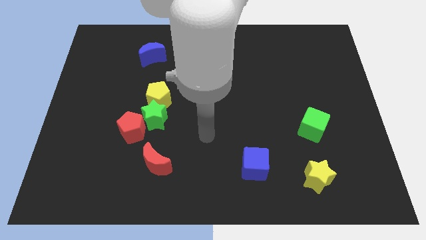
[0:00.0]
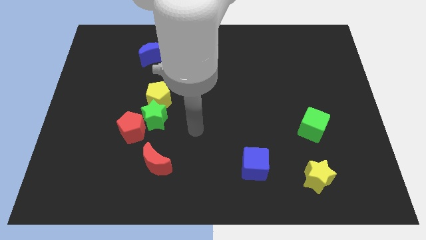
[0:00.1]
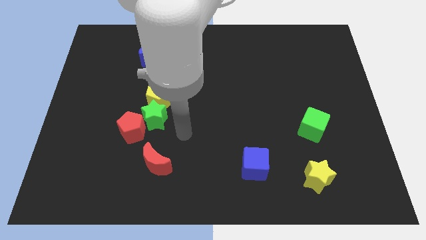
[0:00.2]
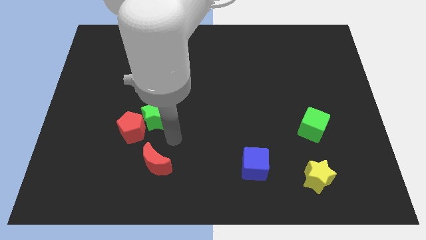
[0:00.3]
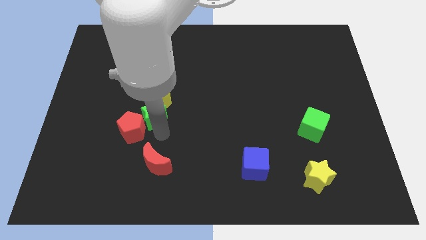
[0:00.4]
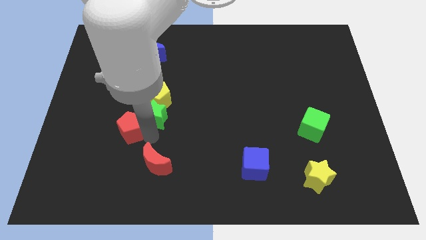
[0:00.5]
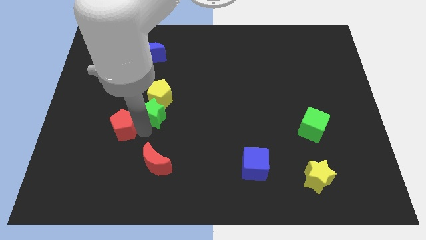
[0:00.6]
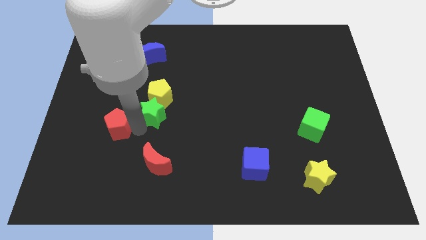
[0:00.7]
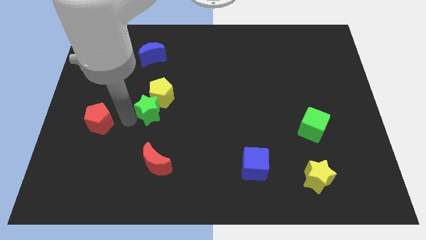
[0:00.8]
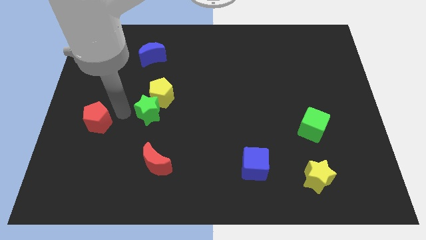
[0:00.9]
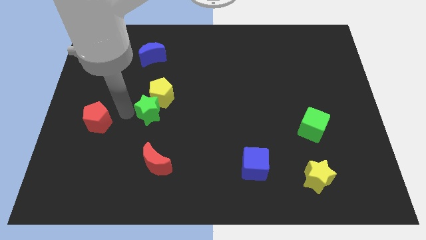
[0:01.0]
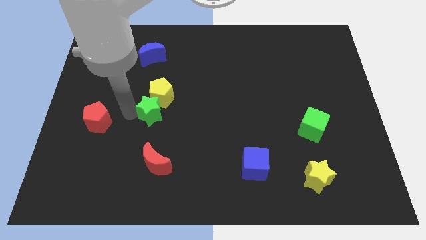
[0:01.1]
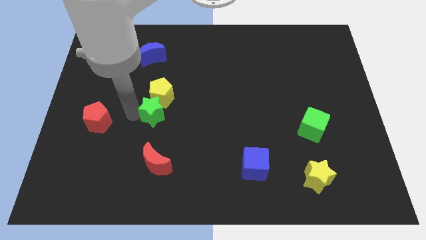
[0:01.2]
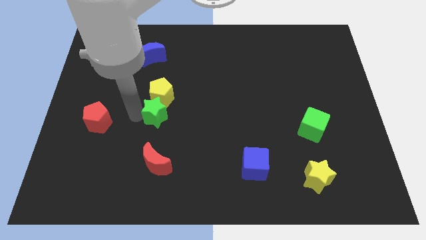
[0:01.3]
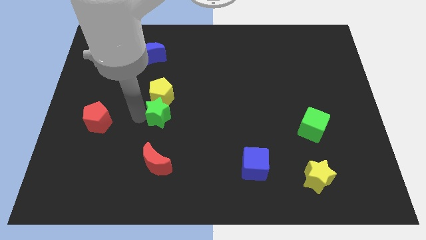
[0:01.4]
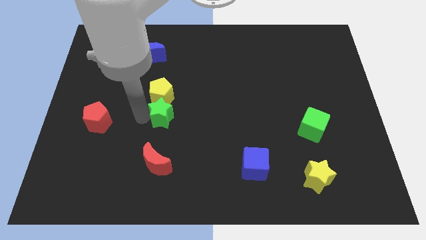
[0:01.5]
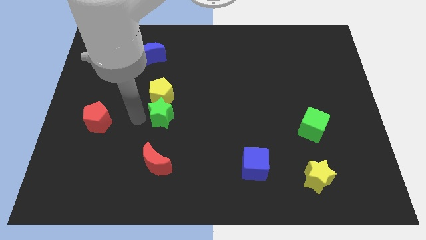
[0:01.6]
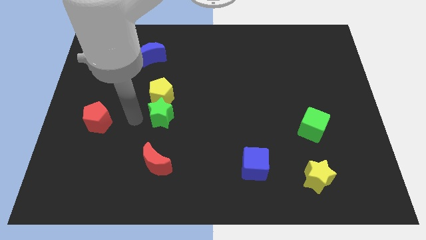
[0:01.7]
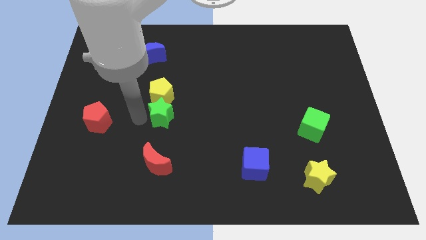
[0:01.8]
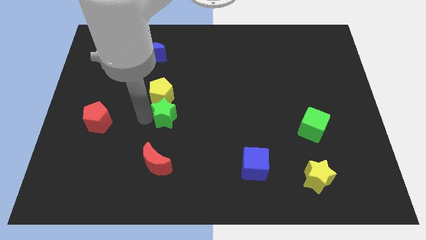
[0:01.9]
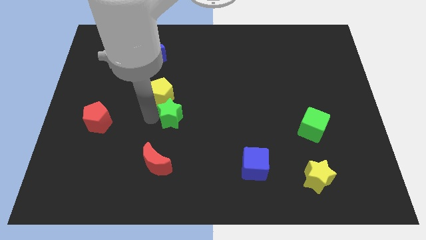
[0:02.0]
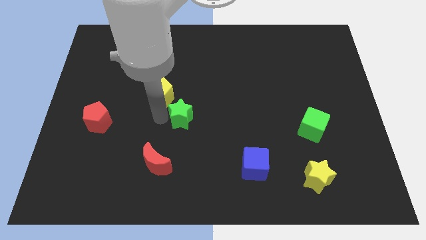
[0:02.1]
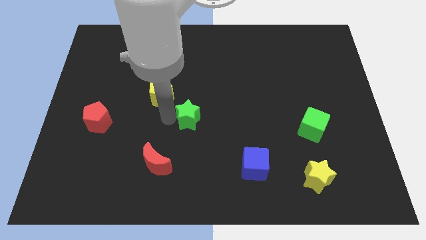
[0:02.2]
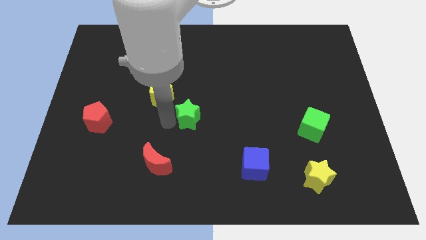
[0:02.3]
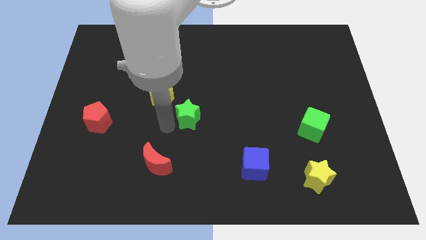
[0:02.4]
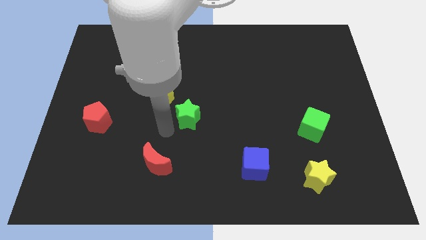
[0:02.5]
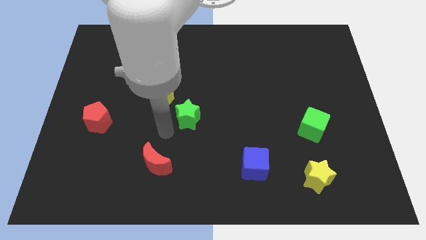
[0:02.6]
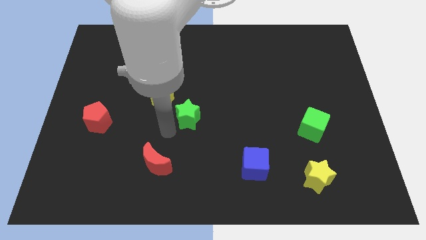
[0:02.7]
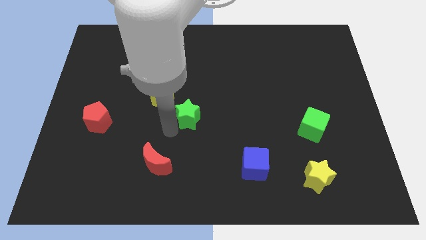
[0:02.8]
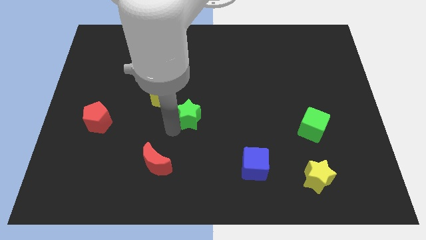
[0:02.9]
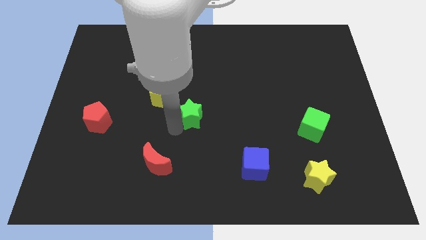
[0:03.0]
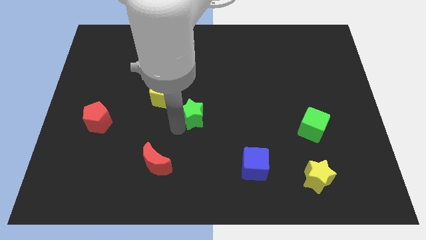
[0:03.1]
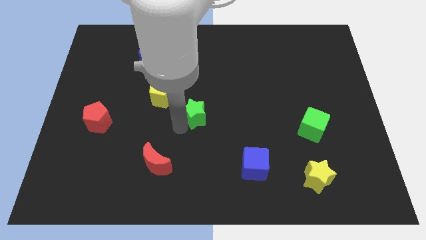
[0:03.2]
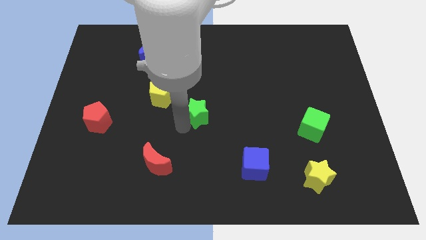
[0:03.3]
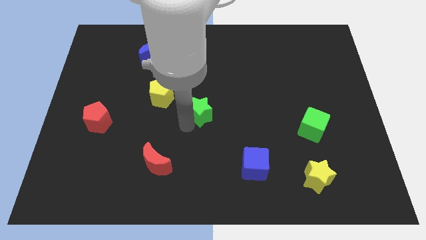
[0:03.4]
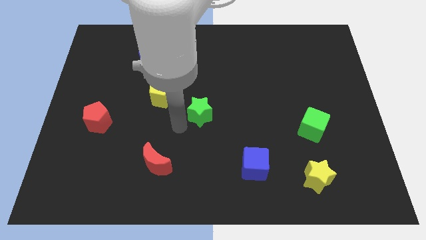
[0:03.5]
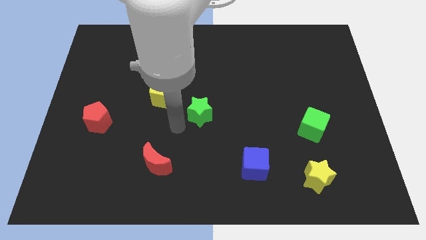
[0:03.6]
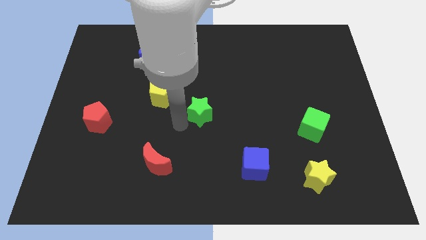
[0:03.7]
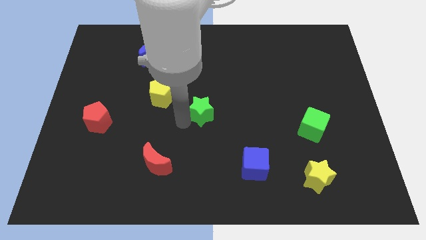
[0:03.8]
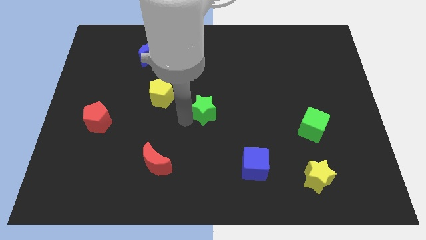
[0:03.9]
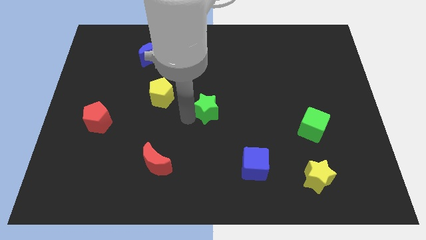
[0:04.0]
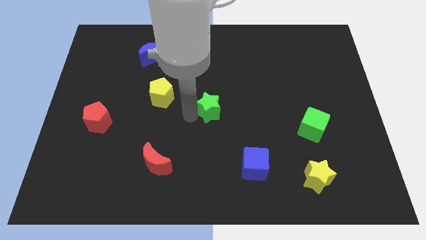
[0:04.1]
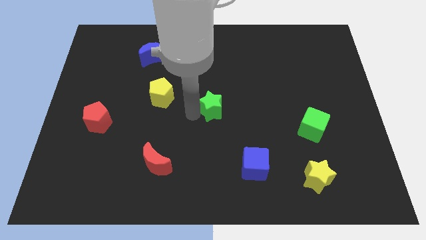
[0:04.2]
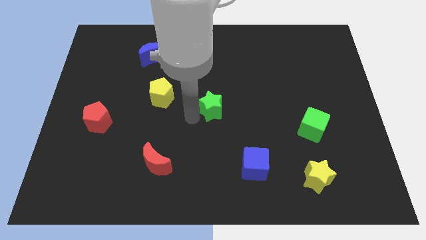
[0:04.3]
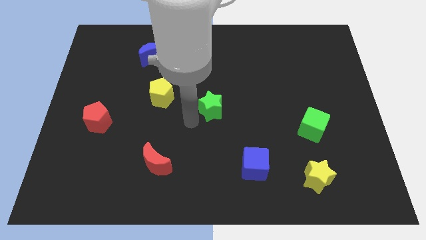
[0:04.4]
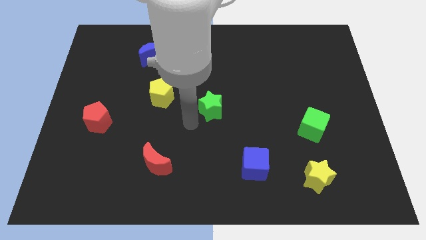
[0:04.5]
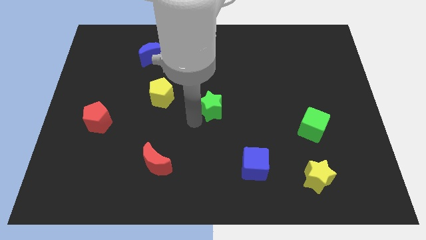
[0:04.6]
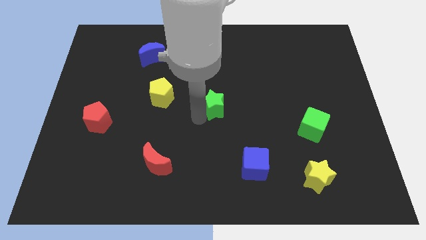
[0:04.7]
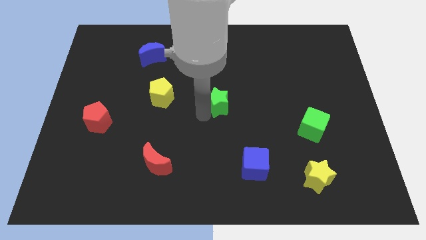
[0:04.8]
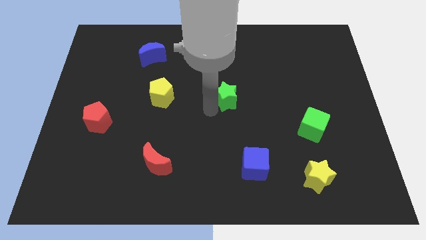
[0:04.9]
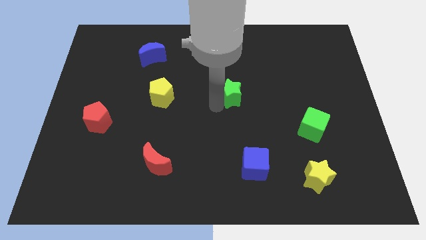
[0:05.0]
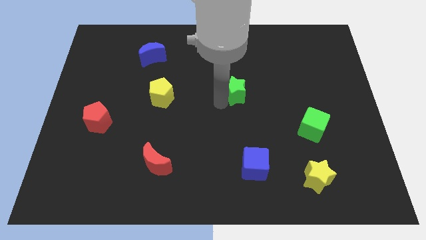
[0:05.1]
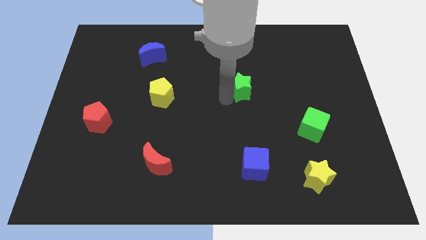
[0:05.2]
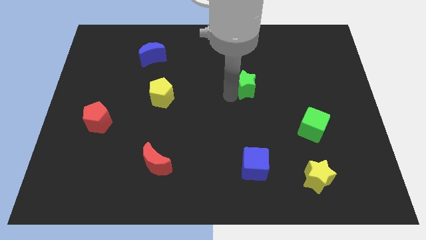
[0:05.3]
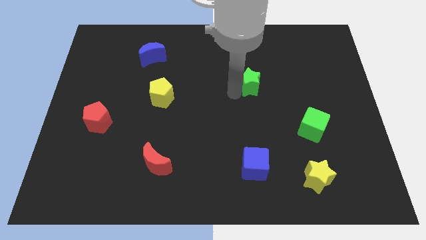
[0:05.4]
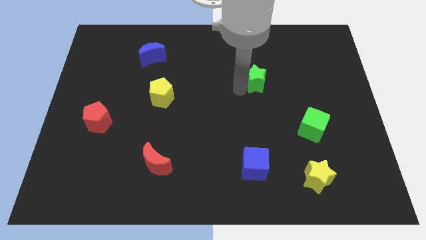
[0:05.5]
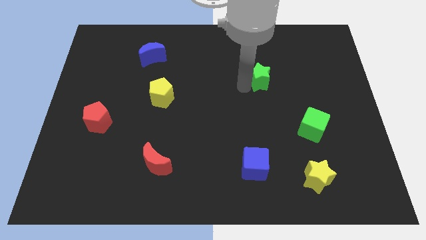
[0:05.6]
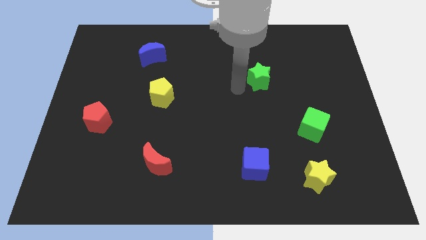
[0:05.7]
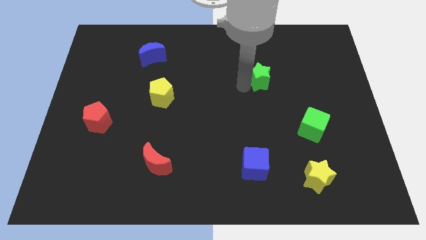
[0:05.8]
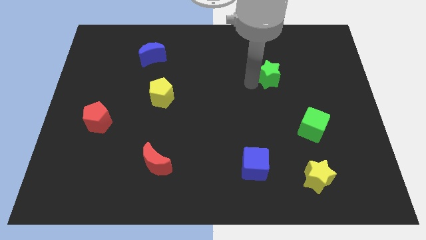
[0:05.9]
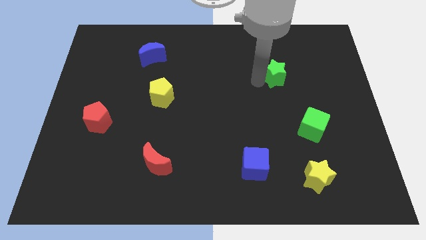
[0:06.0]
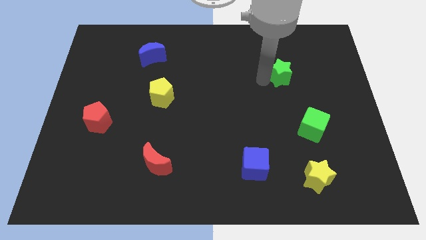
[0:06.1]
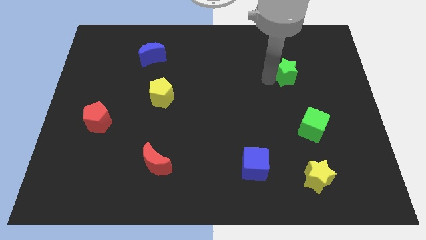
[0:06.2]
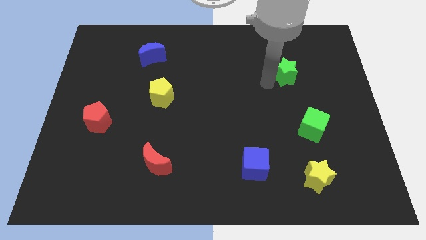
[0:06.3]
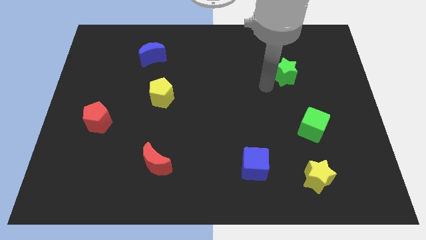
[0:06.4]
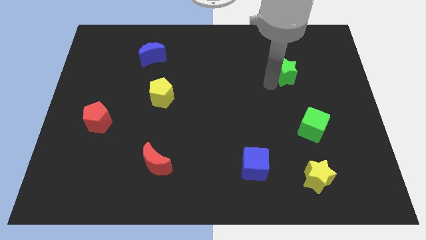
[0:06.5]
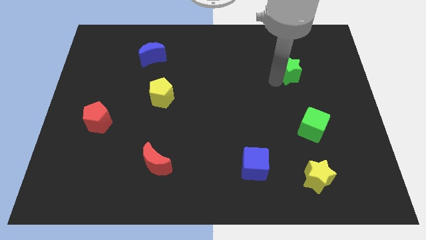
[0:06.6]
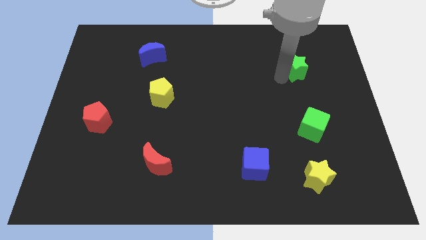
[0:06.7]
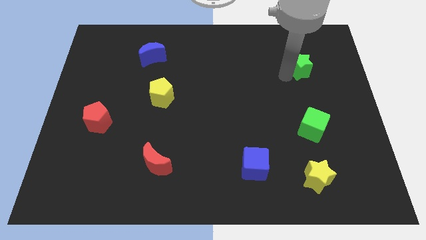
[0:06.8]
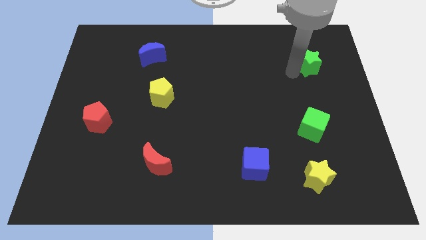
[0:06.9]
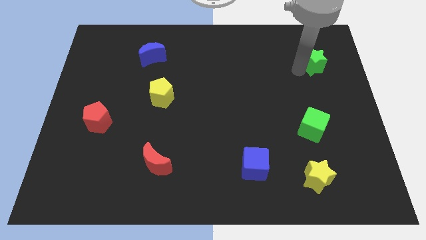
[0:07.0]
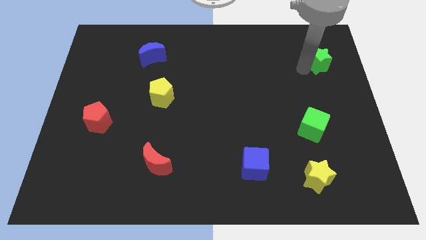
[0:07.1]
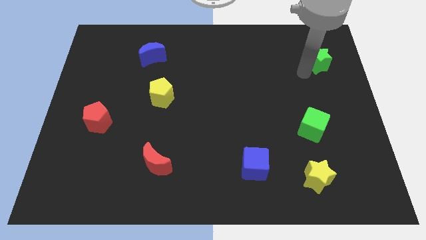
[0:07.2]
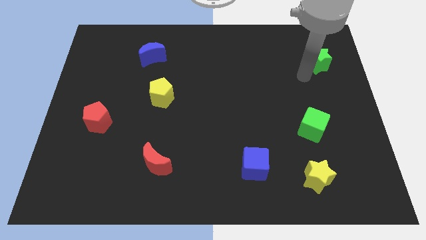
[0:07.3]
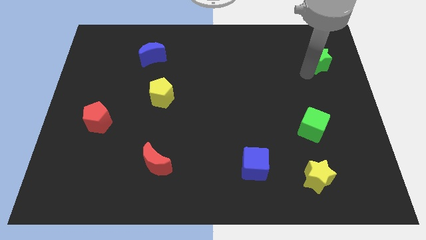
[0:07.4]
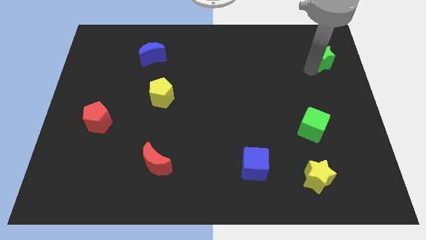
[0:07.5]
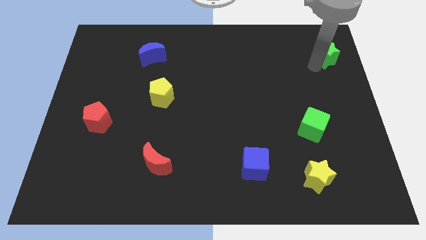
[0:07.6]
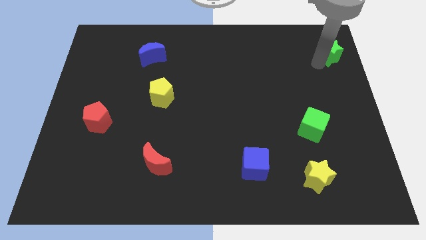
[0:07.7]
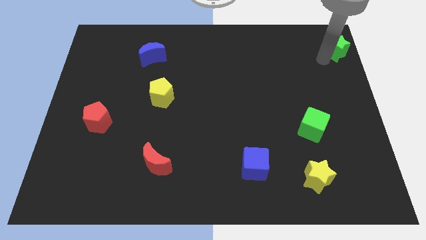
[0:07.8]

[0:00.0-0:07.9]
slide the green star to the upper right corner
